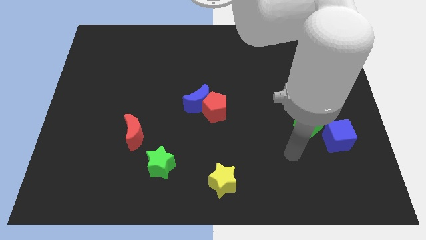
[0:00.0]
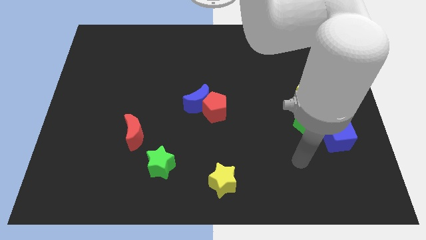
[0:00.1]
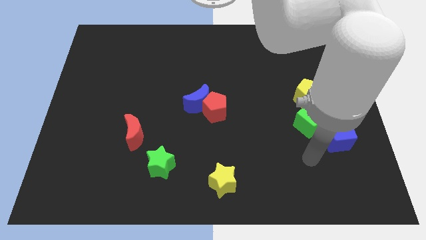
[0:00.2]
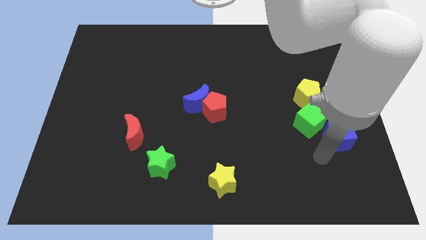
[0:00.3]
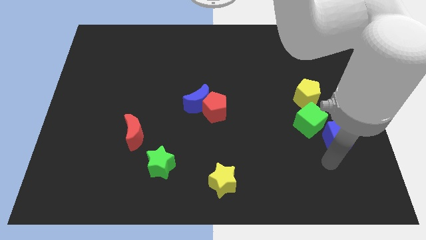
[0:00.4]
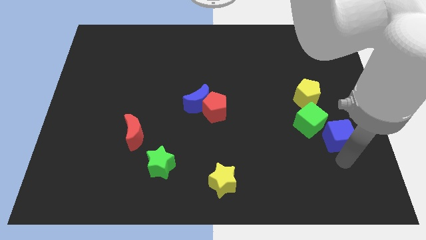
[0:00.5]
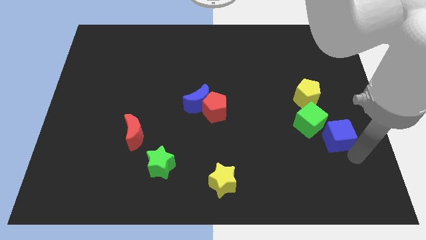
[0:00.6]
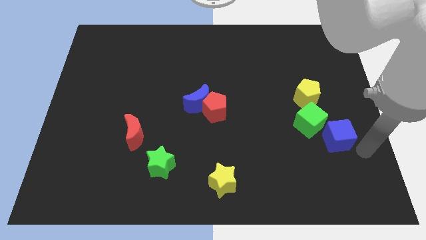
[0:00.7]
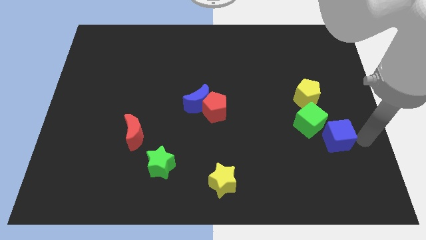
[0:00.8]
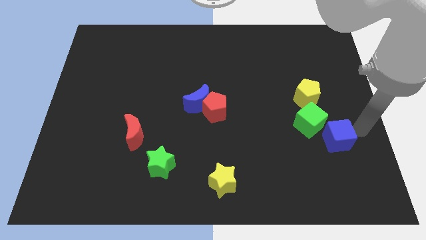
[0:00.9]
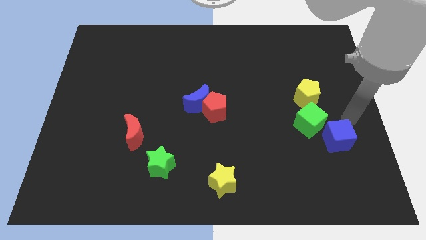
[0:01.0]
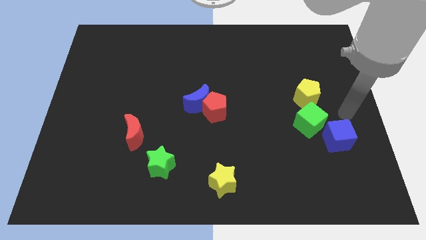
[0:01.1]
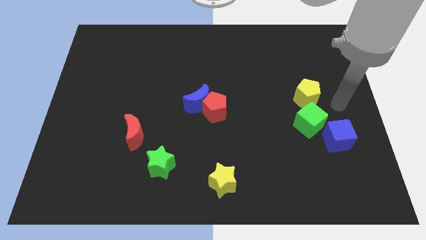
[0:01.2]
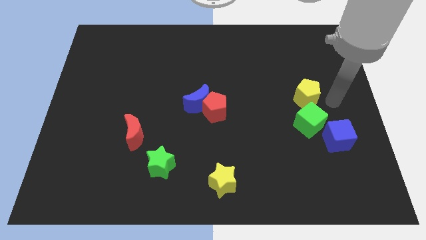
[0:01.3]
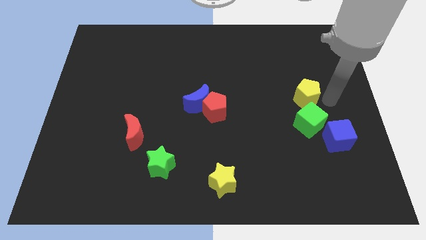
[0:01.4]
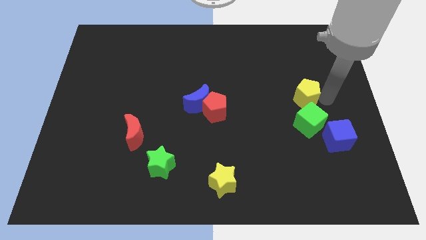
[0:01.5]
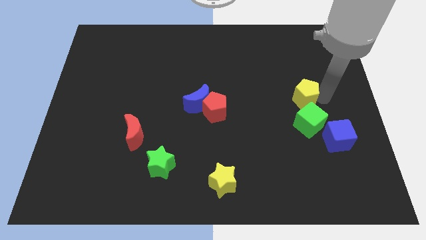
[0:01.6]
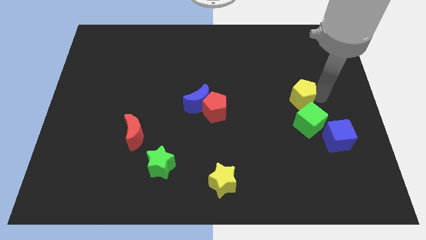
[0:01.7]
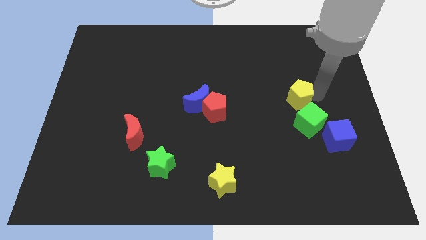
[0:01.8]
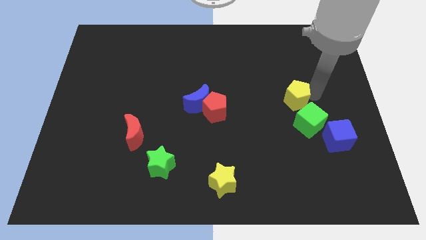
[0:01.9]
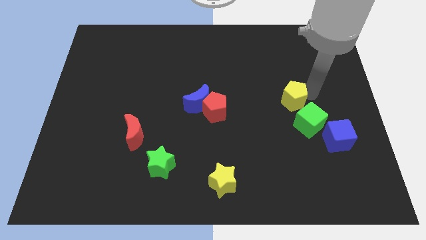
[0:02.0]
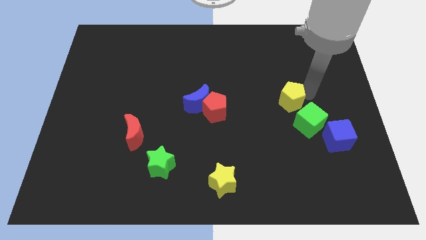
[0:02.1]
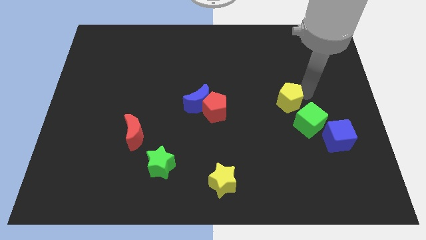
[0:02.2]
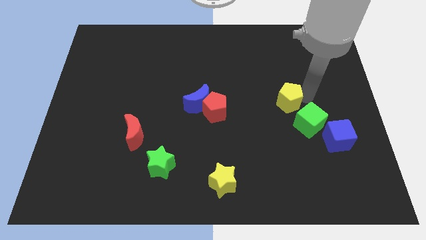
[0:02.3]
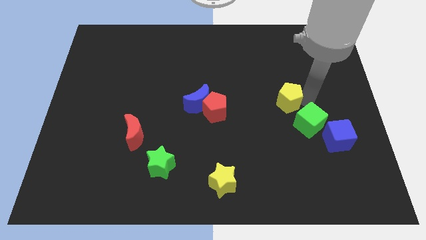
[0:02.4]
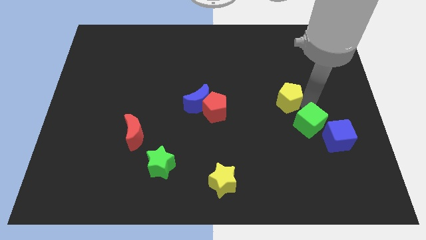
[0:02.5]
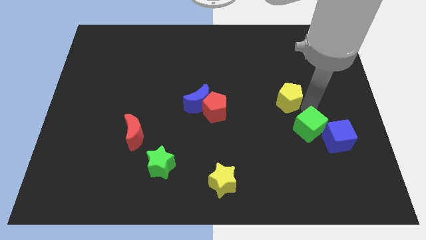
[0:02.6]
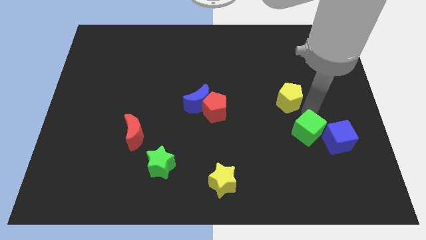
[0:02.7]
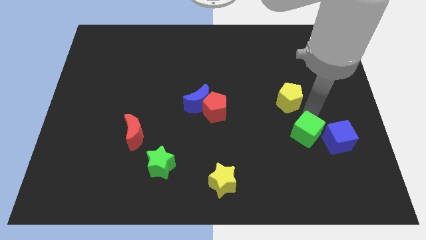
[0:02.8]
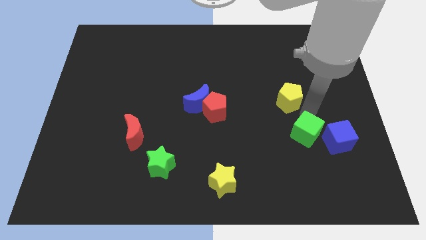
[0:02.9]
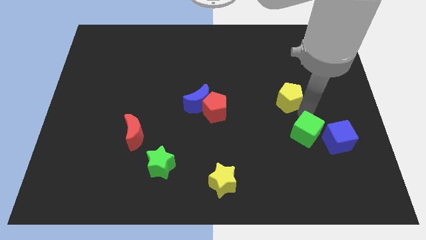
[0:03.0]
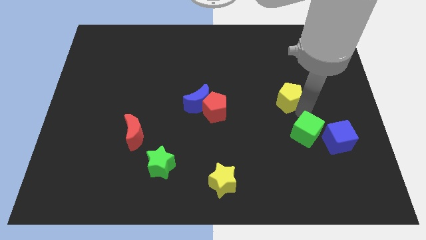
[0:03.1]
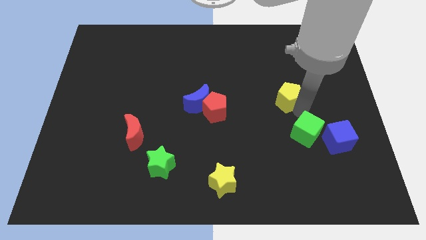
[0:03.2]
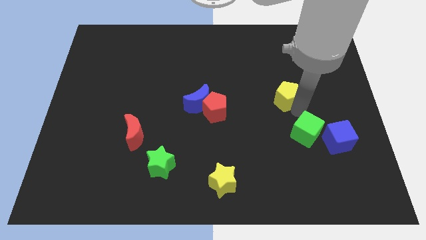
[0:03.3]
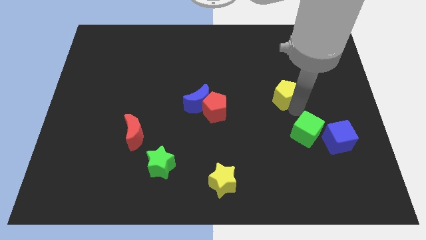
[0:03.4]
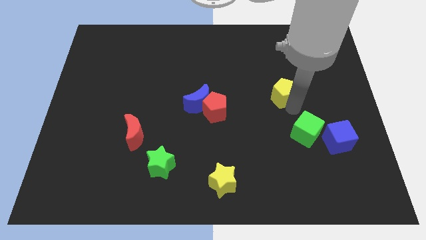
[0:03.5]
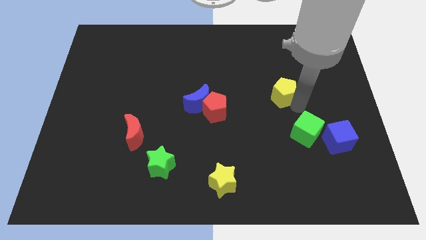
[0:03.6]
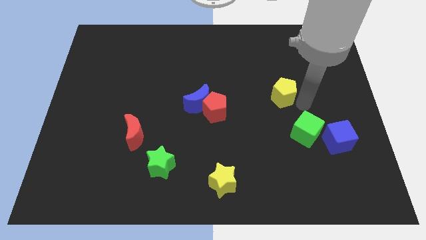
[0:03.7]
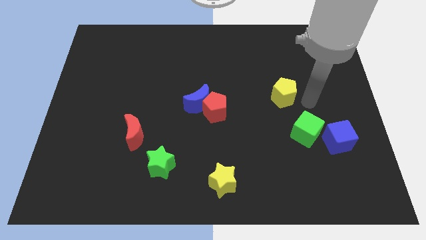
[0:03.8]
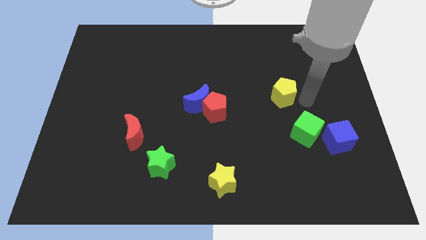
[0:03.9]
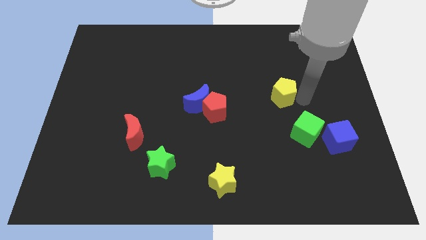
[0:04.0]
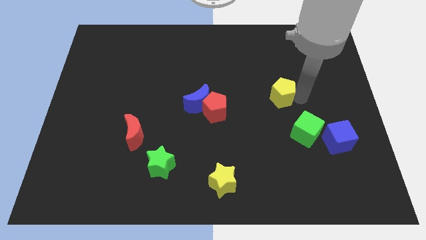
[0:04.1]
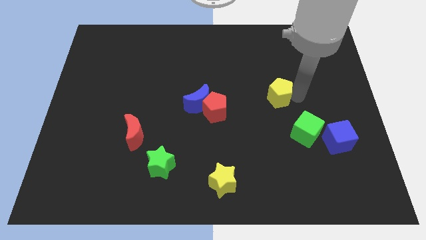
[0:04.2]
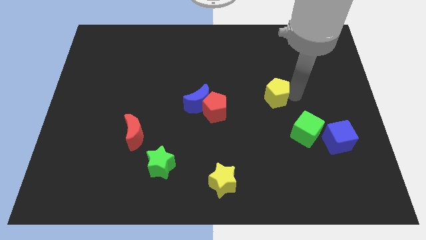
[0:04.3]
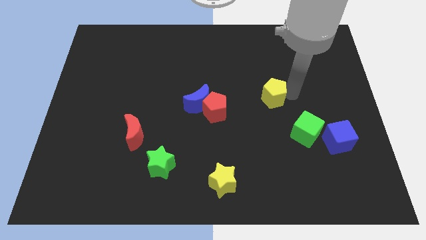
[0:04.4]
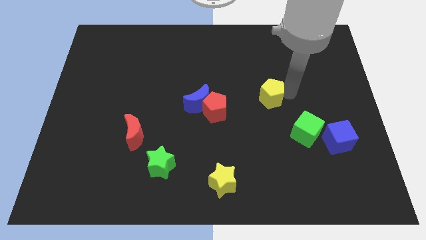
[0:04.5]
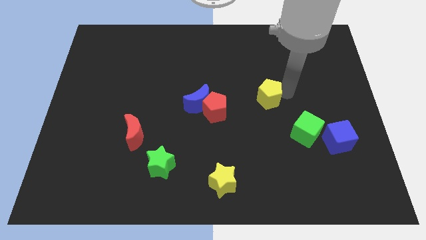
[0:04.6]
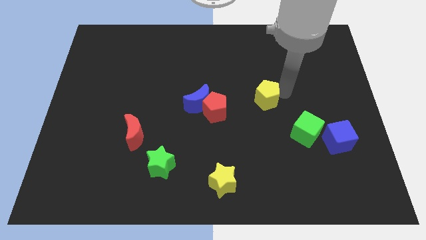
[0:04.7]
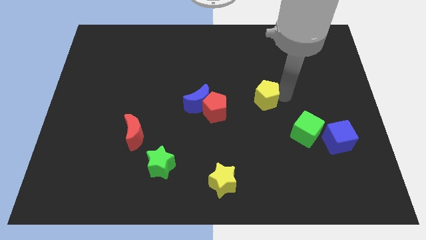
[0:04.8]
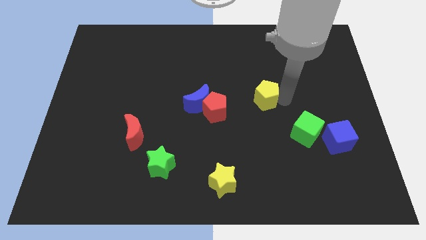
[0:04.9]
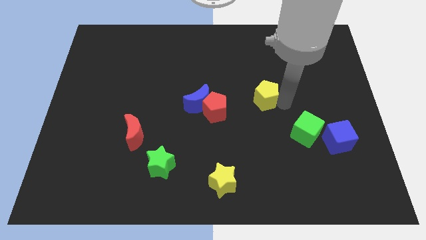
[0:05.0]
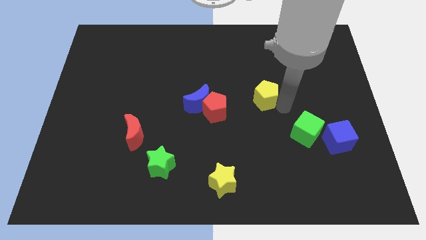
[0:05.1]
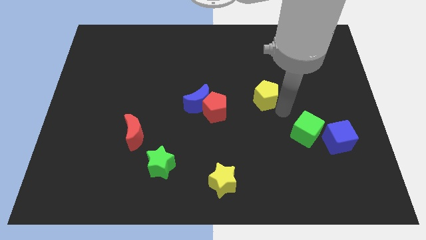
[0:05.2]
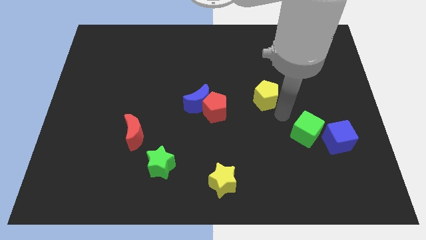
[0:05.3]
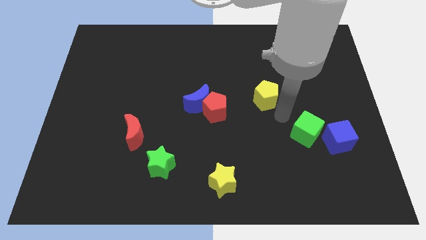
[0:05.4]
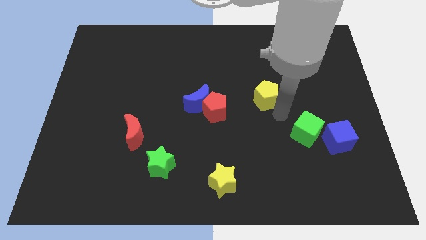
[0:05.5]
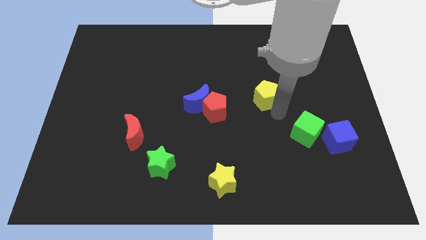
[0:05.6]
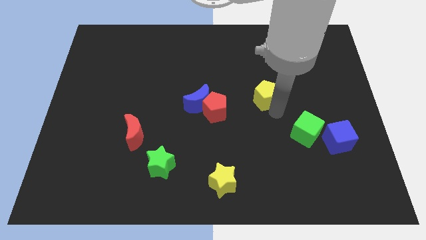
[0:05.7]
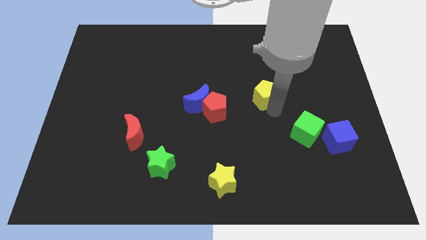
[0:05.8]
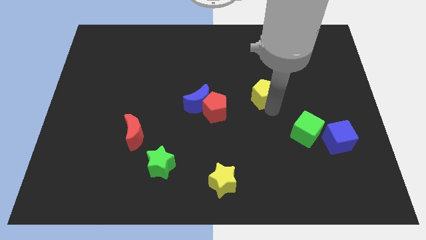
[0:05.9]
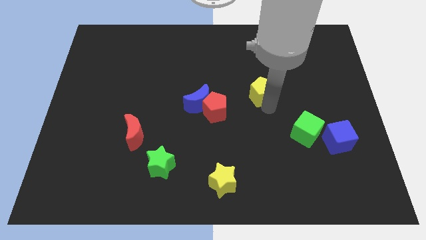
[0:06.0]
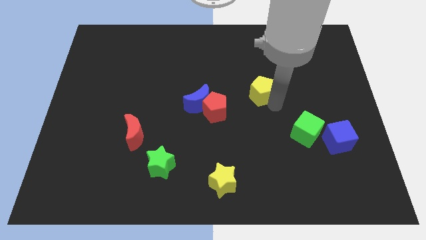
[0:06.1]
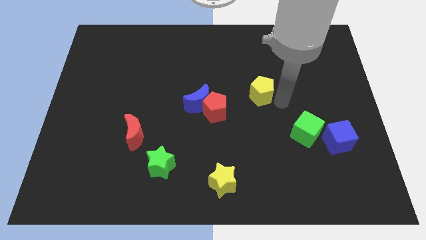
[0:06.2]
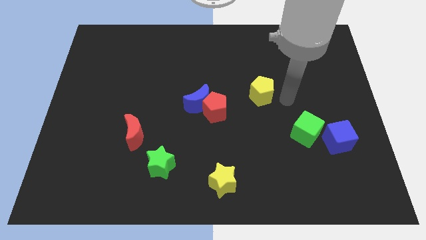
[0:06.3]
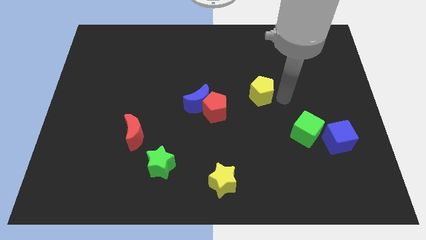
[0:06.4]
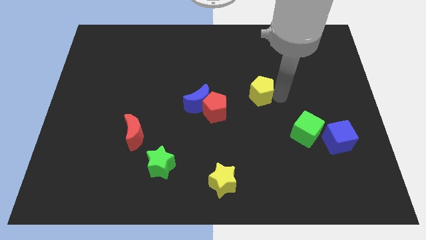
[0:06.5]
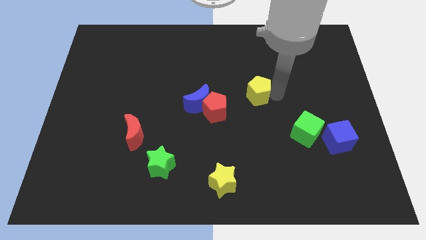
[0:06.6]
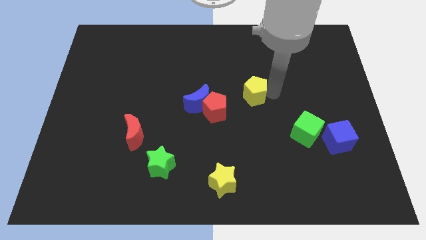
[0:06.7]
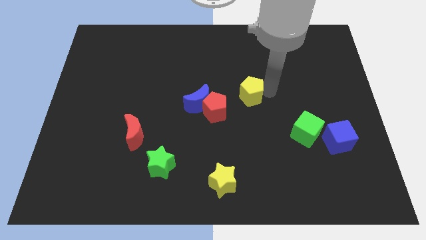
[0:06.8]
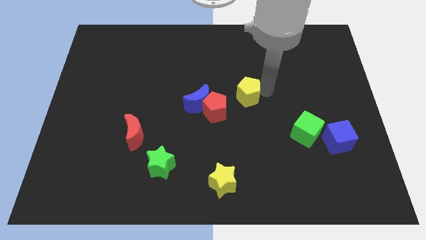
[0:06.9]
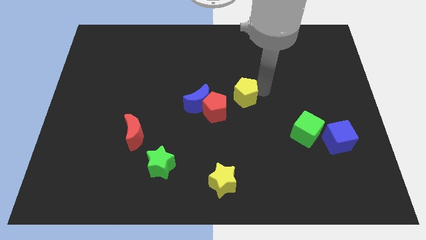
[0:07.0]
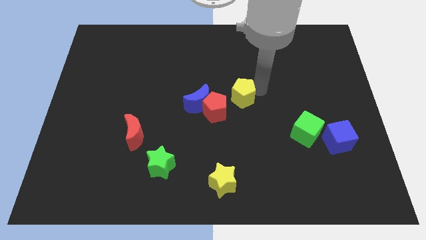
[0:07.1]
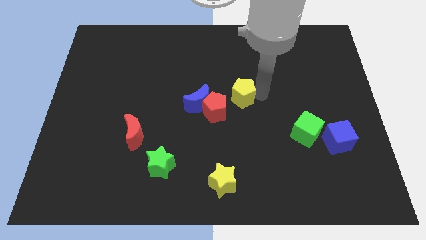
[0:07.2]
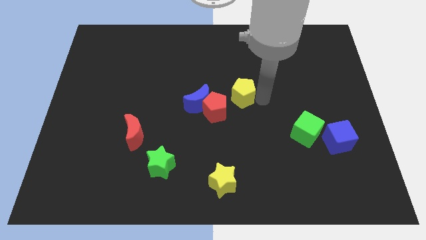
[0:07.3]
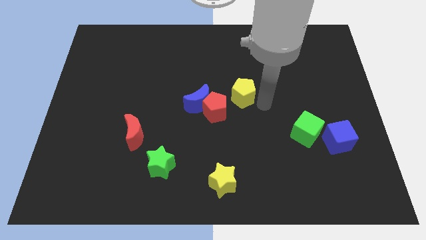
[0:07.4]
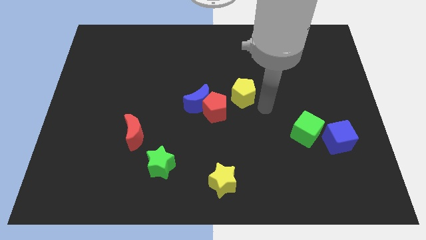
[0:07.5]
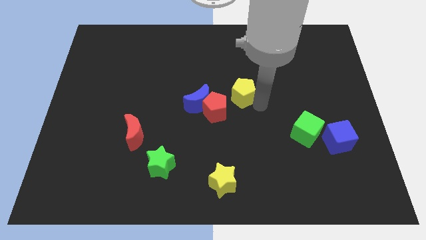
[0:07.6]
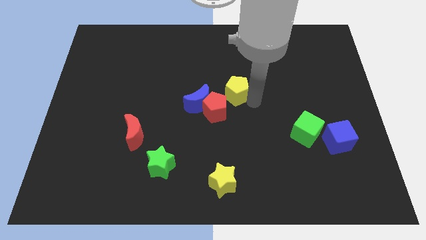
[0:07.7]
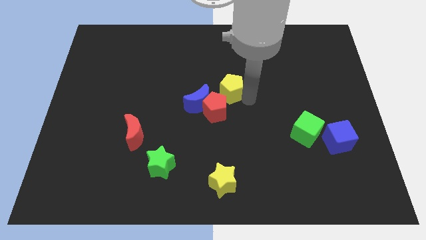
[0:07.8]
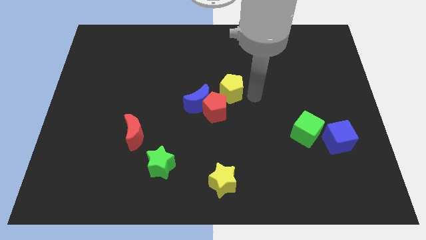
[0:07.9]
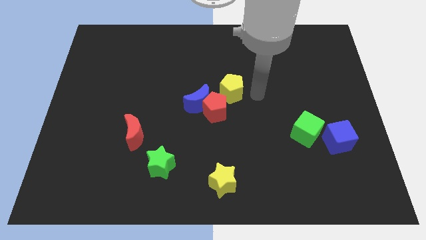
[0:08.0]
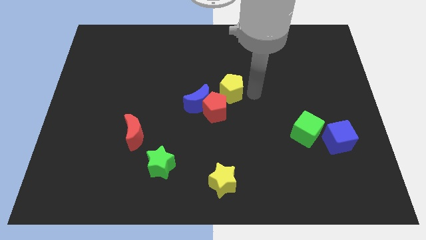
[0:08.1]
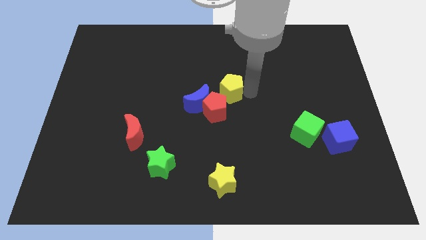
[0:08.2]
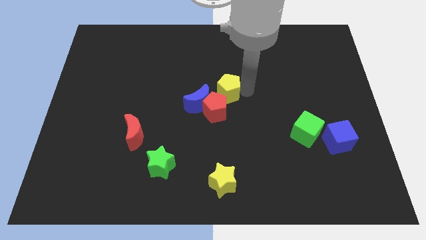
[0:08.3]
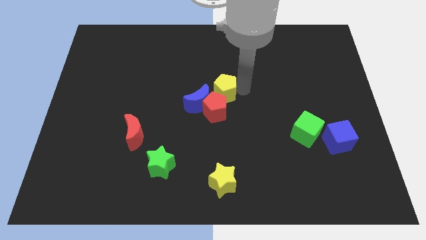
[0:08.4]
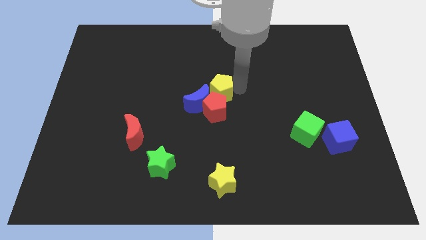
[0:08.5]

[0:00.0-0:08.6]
move the yellow pentagon left
